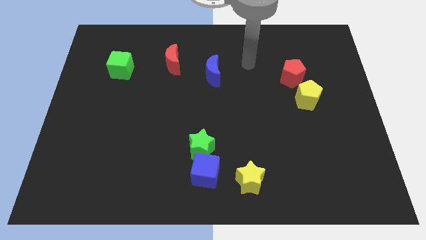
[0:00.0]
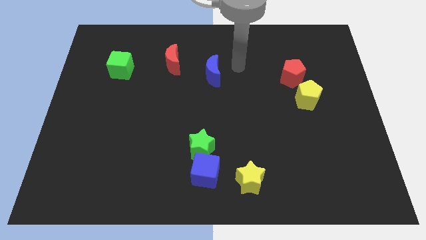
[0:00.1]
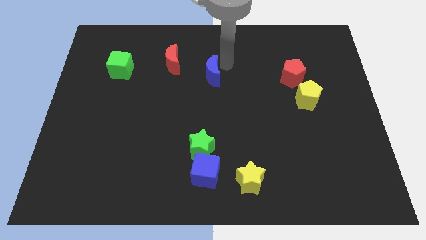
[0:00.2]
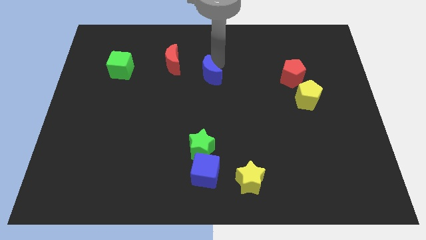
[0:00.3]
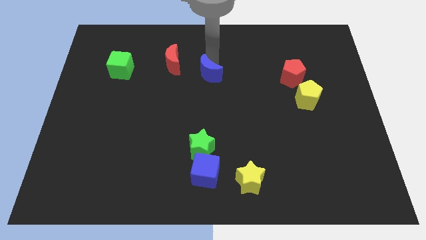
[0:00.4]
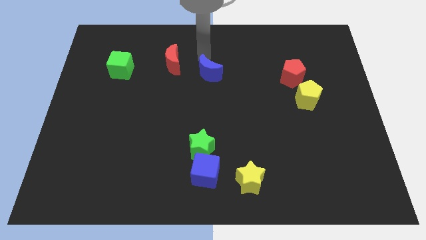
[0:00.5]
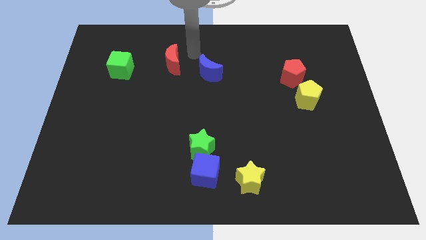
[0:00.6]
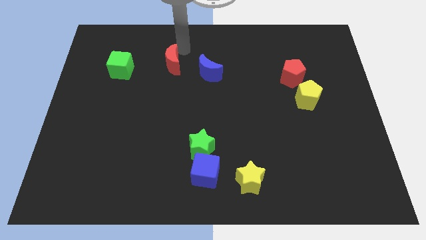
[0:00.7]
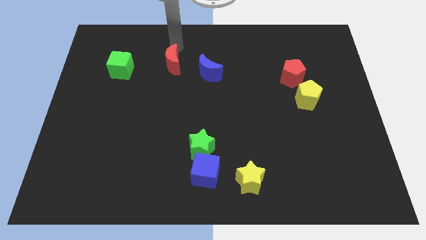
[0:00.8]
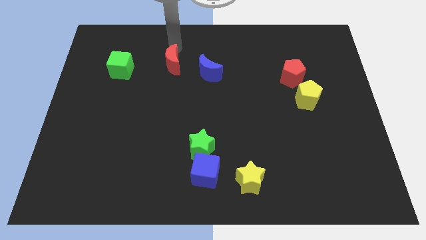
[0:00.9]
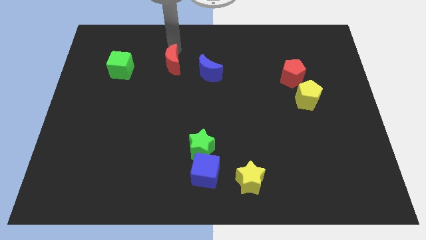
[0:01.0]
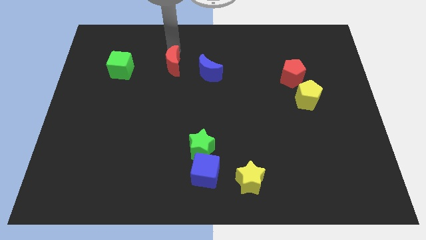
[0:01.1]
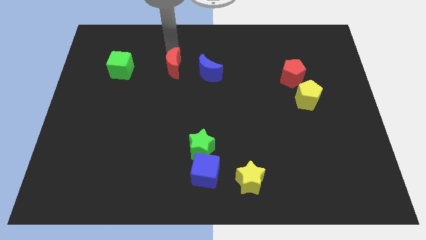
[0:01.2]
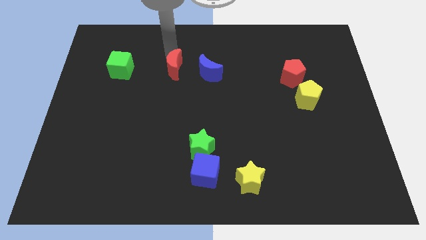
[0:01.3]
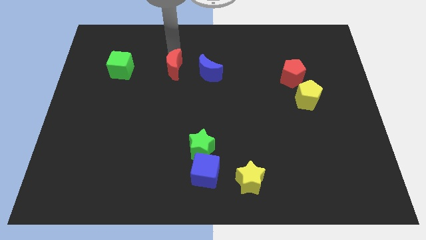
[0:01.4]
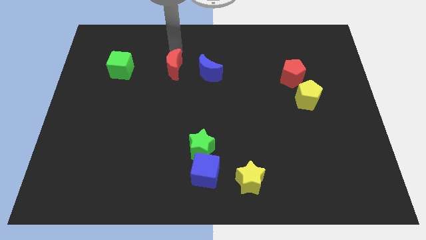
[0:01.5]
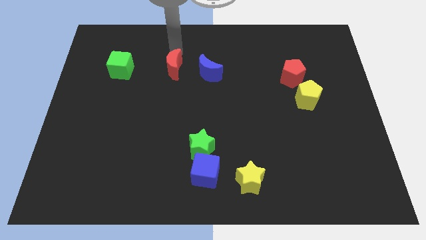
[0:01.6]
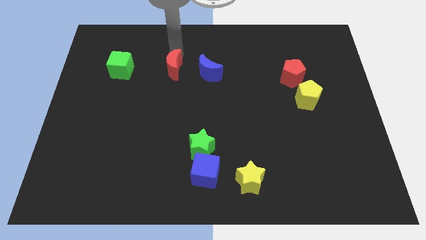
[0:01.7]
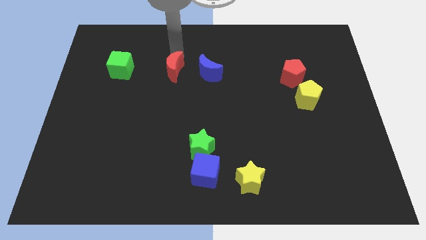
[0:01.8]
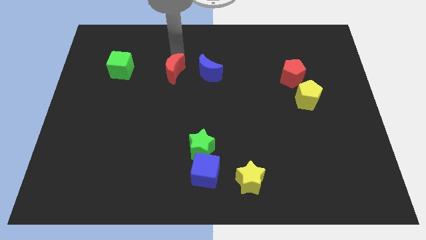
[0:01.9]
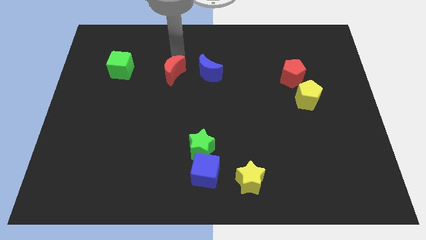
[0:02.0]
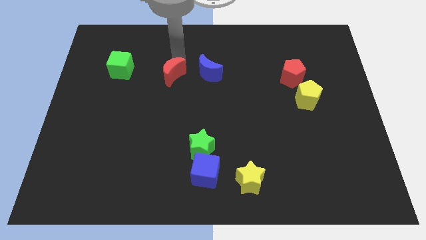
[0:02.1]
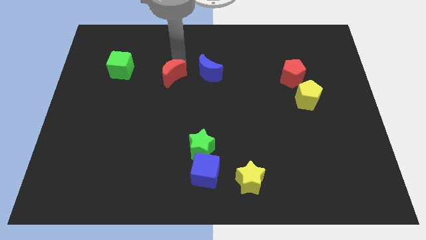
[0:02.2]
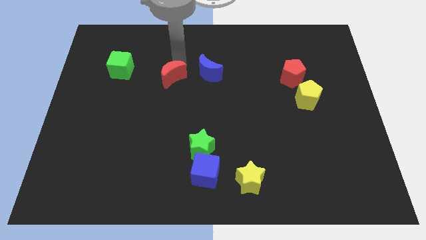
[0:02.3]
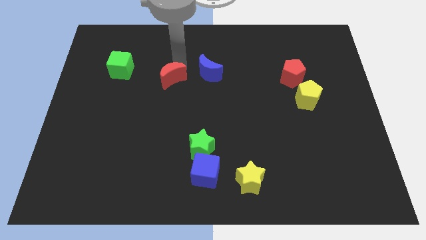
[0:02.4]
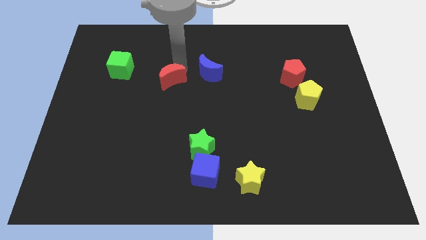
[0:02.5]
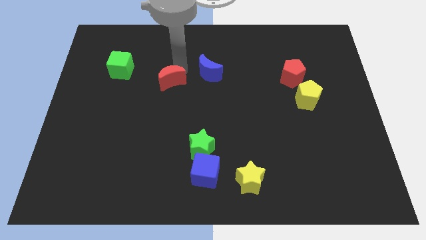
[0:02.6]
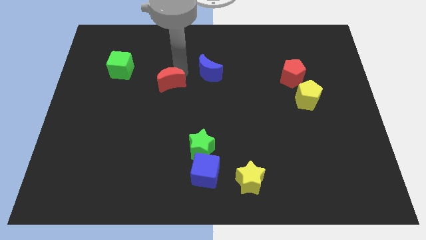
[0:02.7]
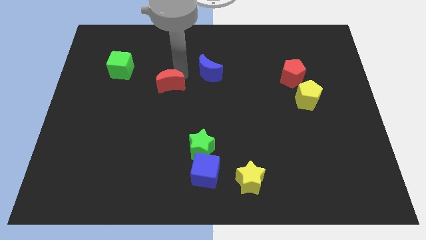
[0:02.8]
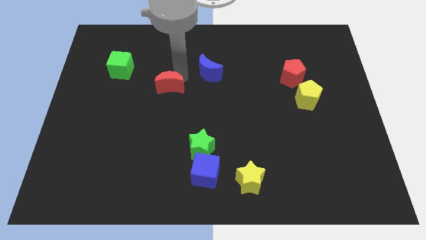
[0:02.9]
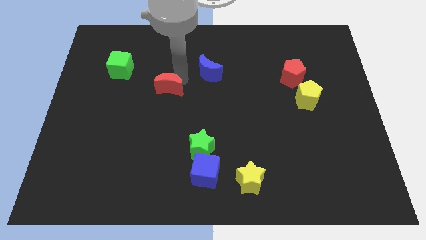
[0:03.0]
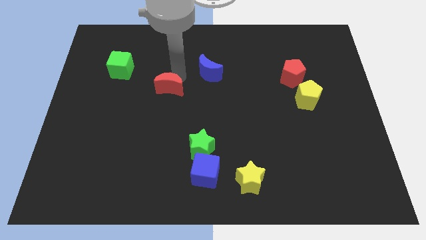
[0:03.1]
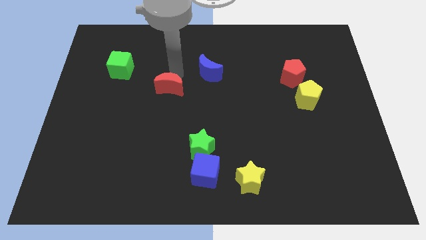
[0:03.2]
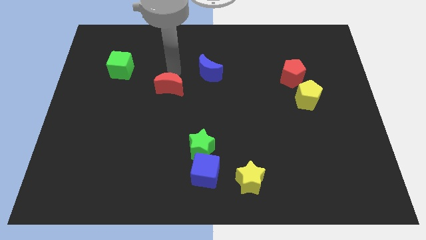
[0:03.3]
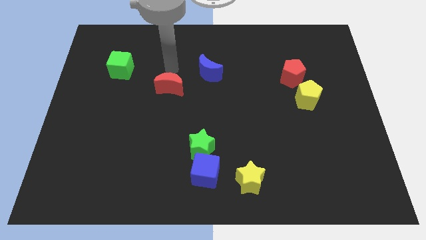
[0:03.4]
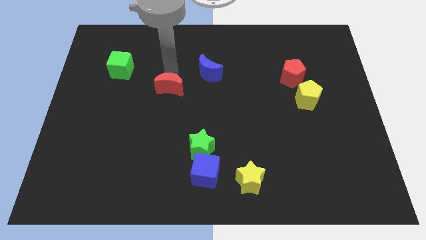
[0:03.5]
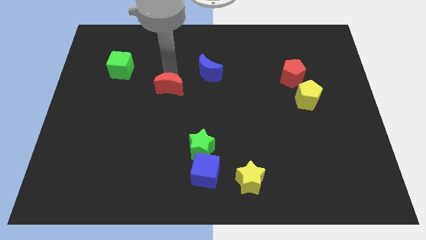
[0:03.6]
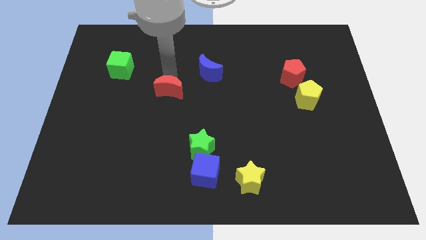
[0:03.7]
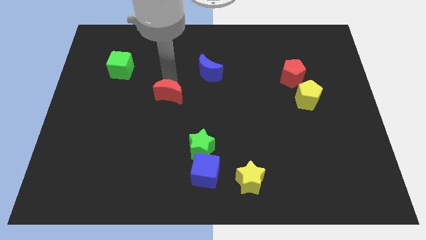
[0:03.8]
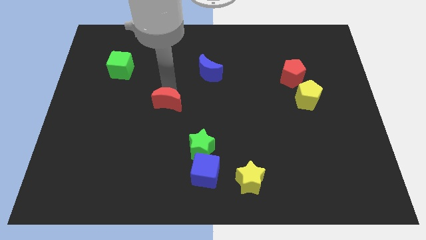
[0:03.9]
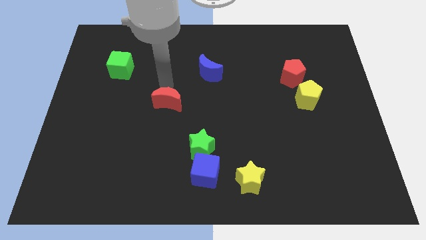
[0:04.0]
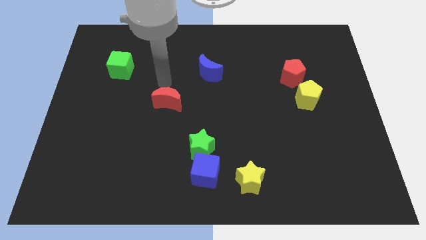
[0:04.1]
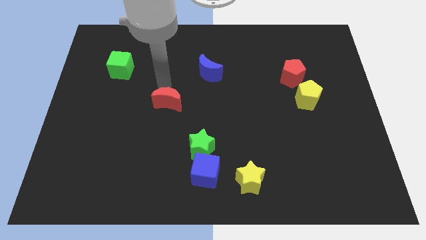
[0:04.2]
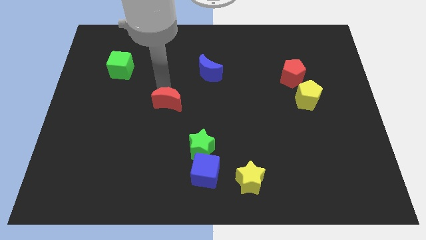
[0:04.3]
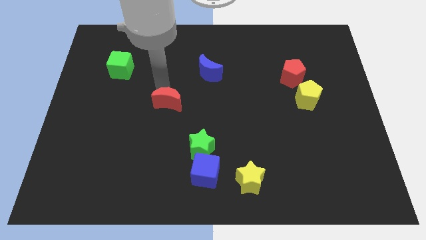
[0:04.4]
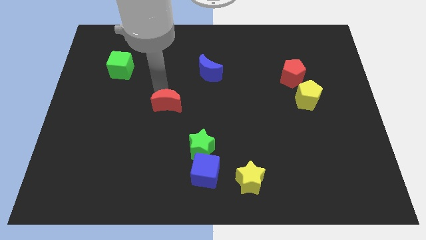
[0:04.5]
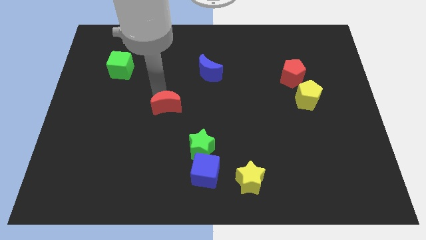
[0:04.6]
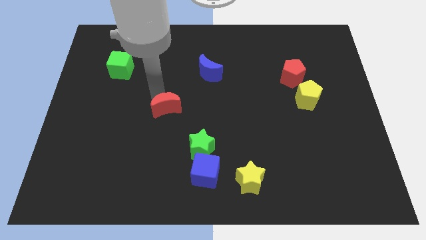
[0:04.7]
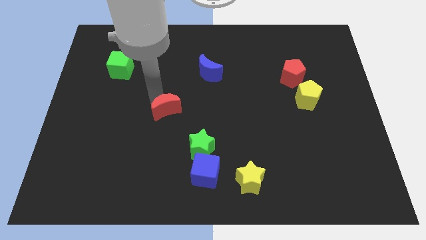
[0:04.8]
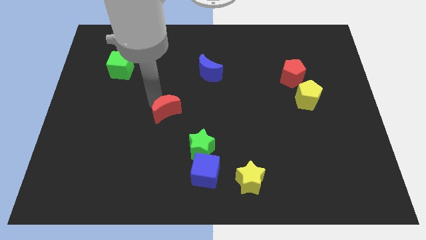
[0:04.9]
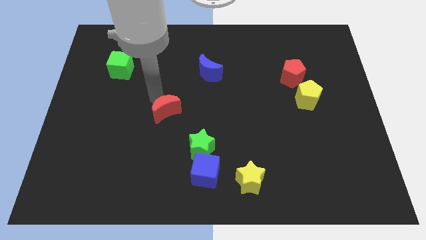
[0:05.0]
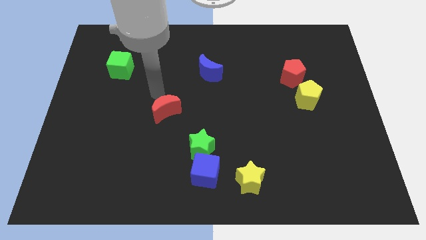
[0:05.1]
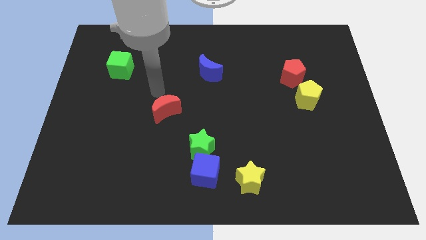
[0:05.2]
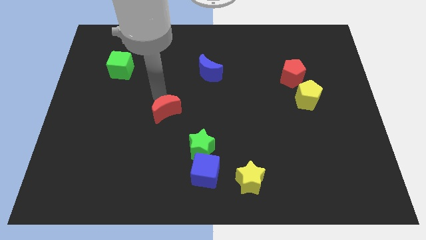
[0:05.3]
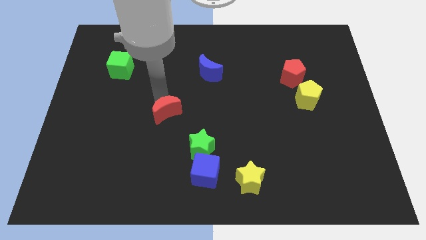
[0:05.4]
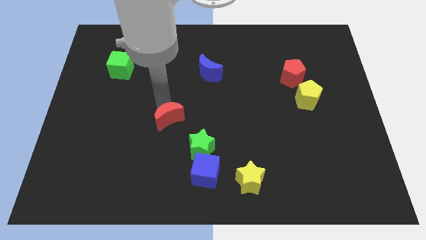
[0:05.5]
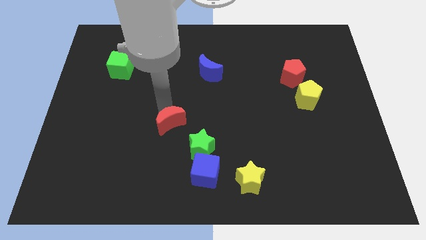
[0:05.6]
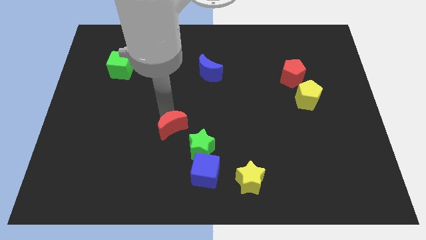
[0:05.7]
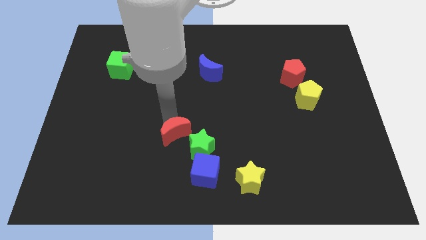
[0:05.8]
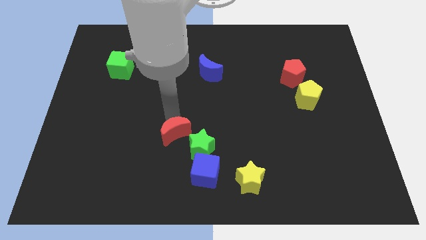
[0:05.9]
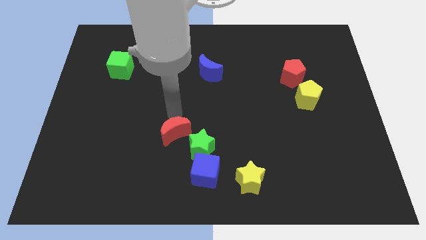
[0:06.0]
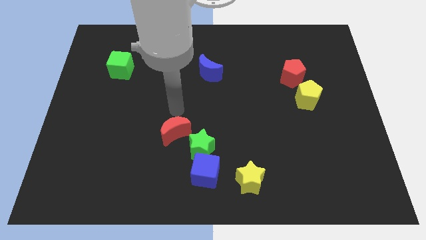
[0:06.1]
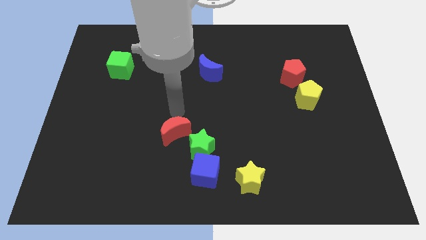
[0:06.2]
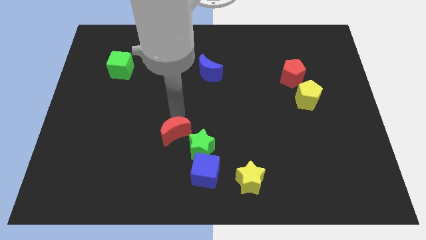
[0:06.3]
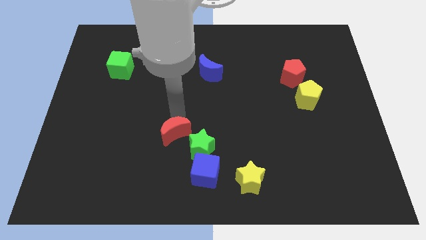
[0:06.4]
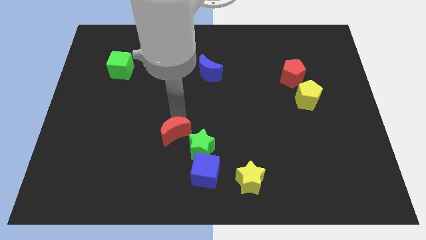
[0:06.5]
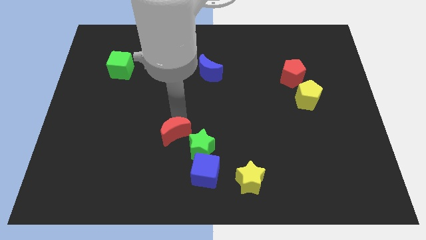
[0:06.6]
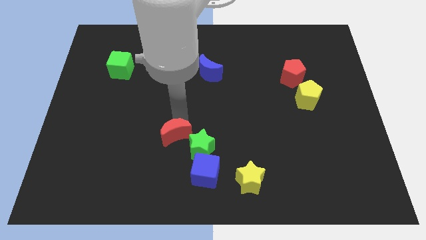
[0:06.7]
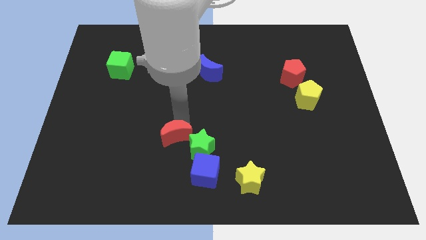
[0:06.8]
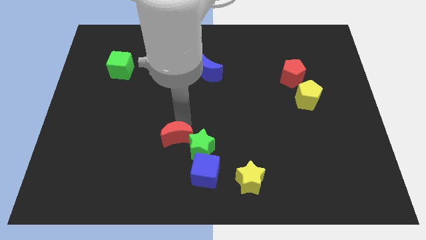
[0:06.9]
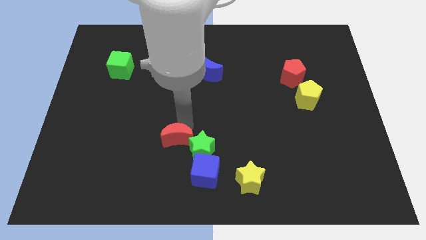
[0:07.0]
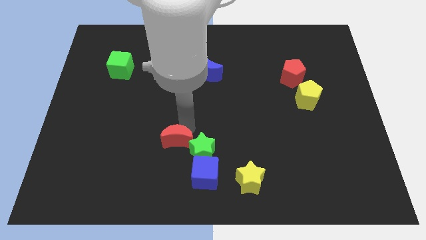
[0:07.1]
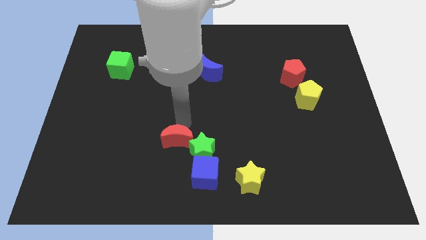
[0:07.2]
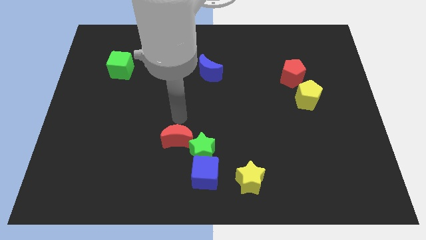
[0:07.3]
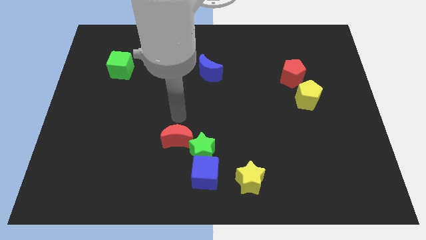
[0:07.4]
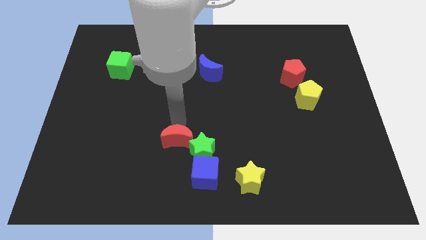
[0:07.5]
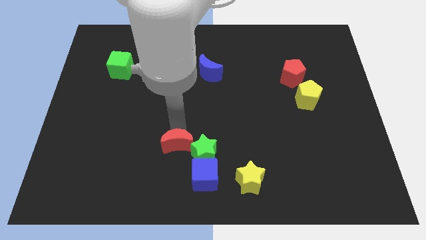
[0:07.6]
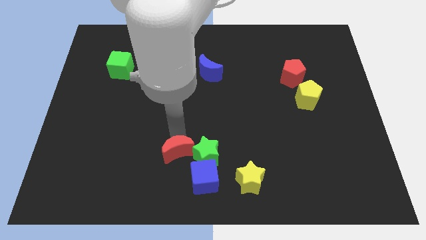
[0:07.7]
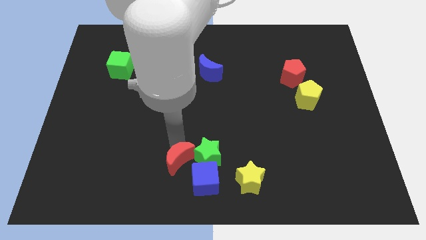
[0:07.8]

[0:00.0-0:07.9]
put the red moon to the bottom left side of the green star
